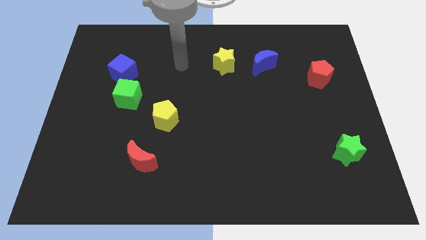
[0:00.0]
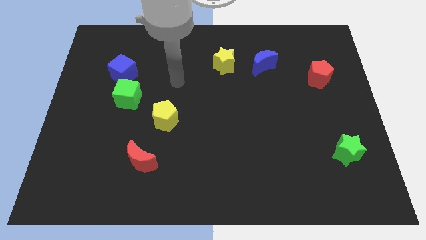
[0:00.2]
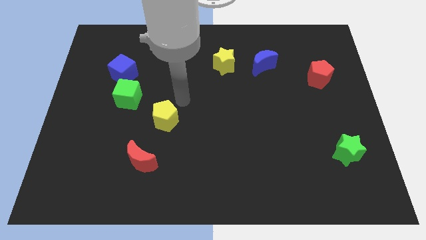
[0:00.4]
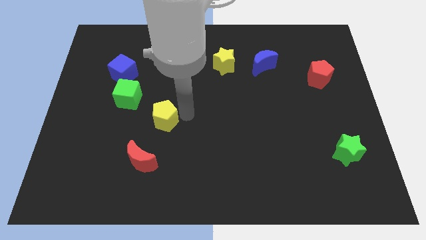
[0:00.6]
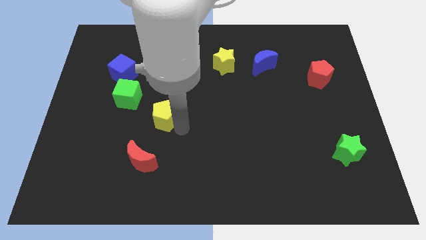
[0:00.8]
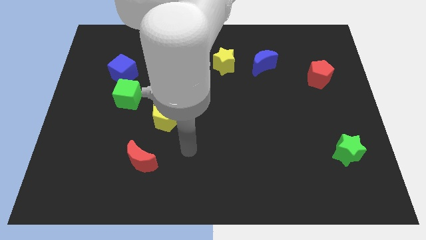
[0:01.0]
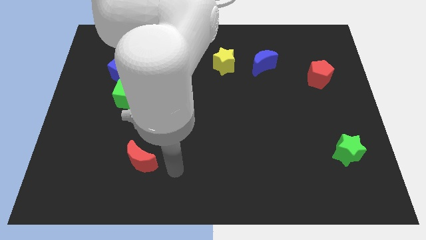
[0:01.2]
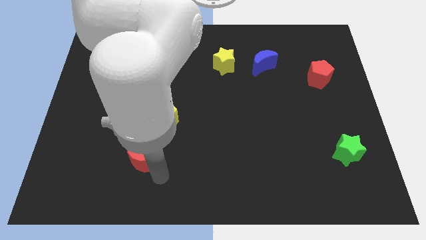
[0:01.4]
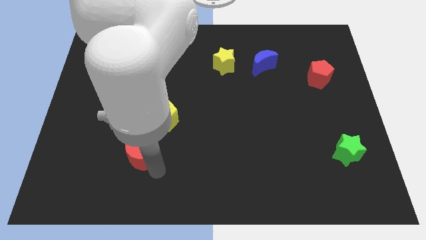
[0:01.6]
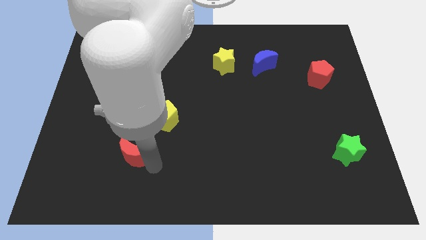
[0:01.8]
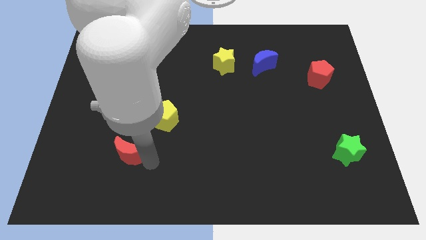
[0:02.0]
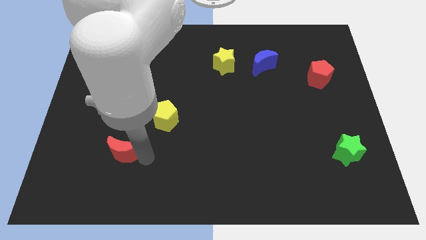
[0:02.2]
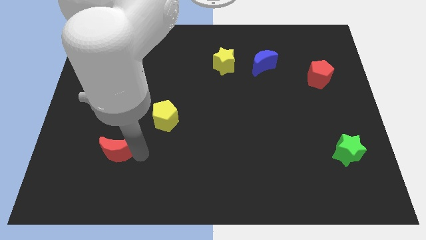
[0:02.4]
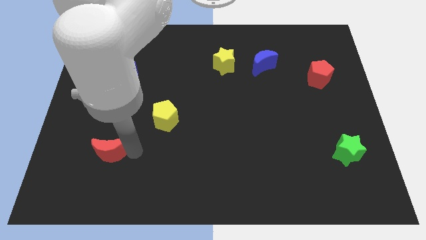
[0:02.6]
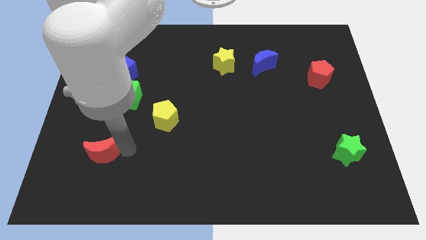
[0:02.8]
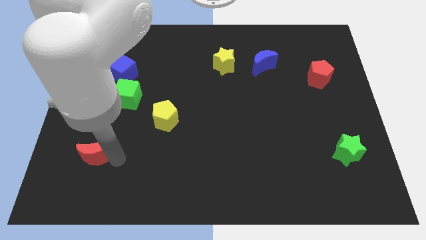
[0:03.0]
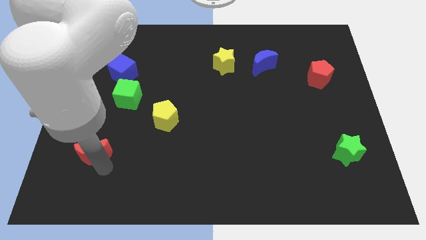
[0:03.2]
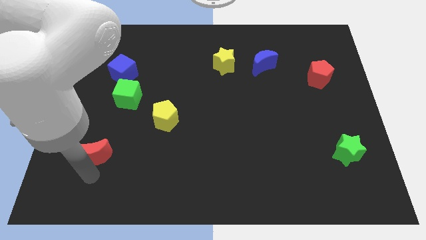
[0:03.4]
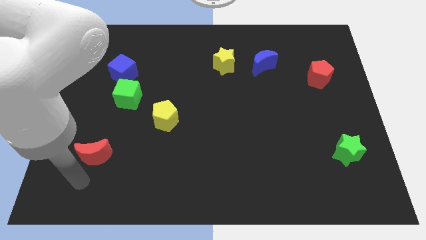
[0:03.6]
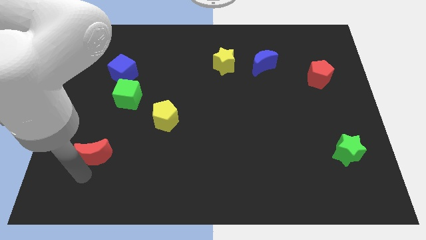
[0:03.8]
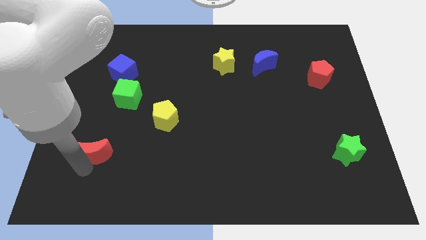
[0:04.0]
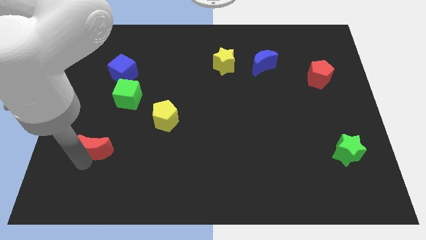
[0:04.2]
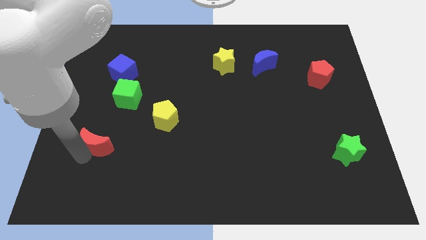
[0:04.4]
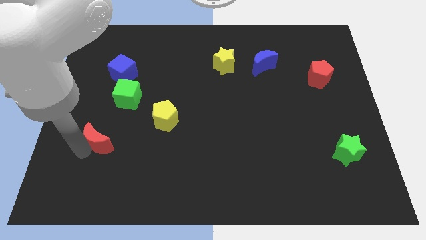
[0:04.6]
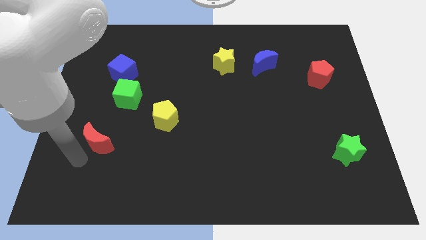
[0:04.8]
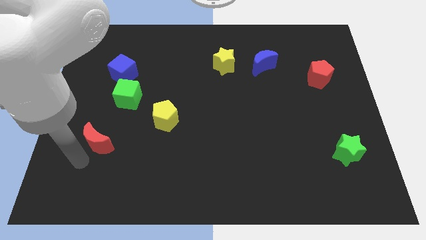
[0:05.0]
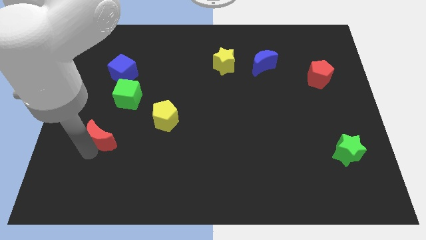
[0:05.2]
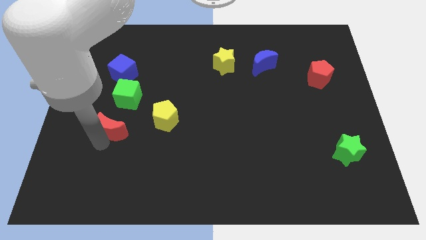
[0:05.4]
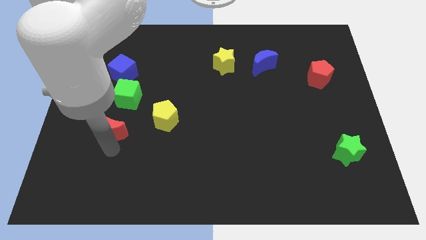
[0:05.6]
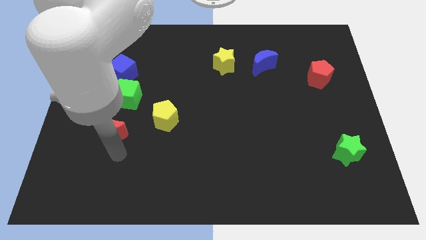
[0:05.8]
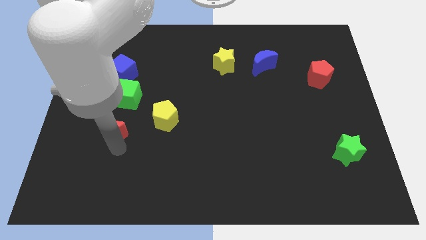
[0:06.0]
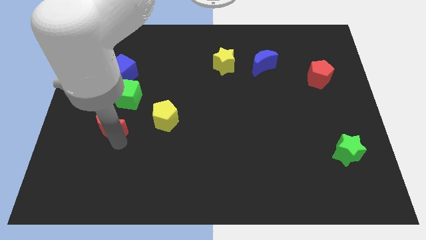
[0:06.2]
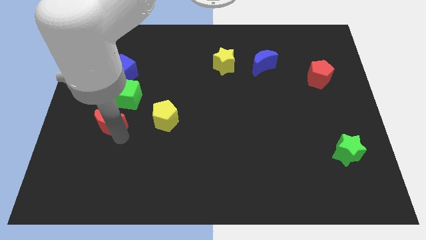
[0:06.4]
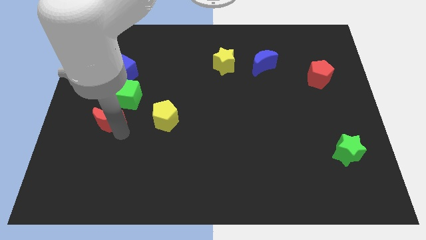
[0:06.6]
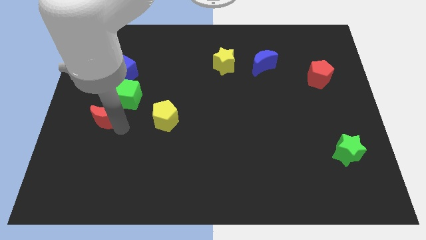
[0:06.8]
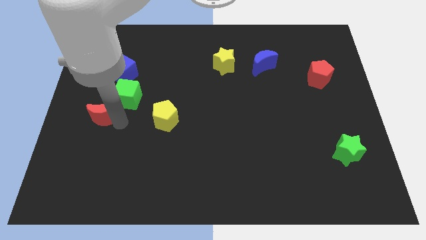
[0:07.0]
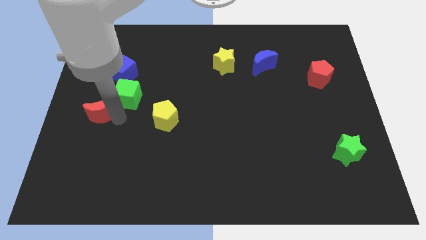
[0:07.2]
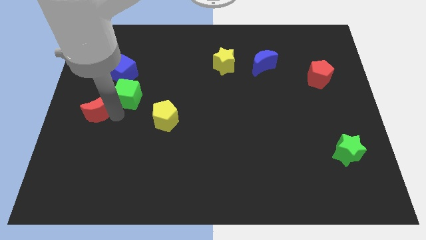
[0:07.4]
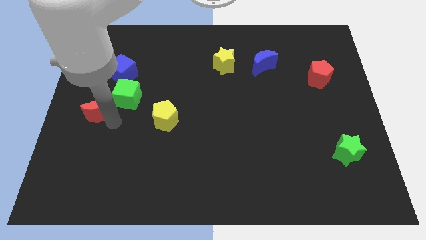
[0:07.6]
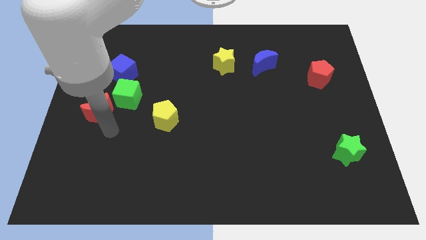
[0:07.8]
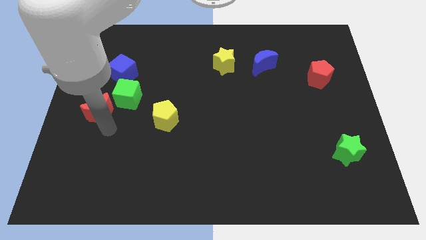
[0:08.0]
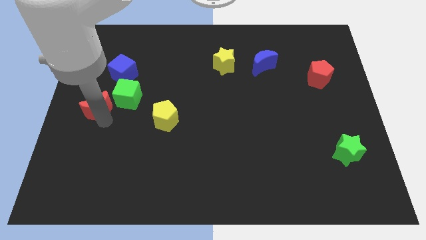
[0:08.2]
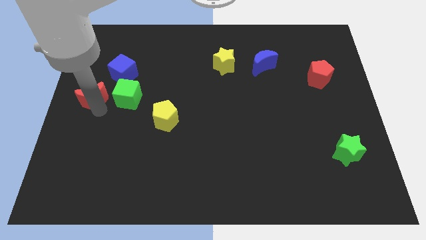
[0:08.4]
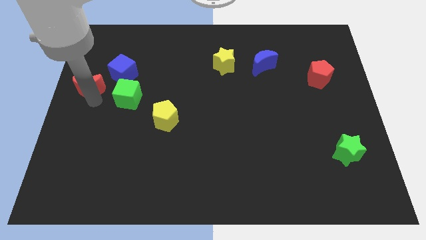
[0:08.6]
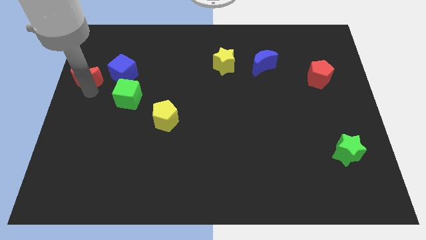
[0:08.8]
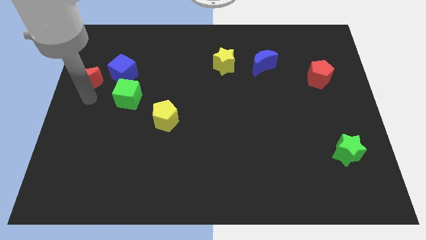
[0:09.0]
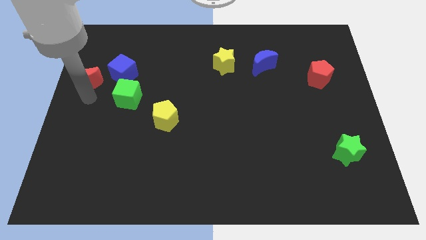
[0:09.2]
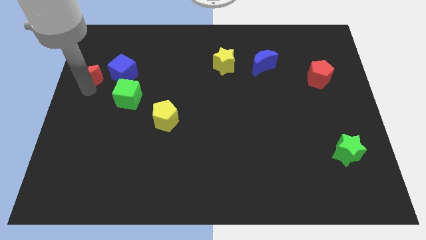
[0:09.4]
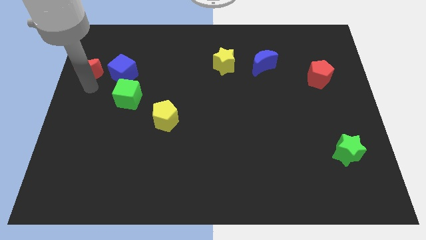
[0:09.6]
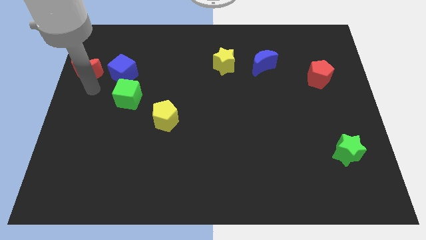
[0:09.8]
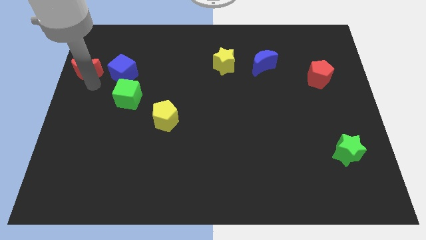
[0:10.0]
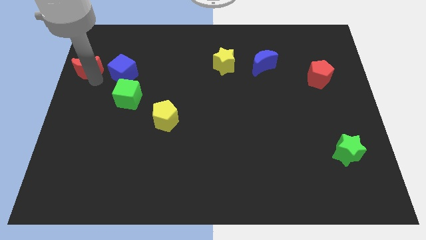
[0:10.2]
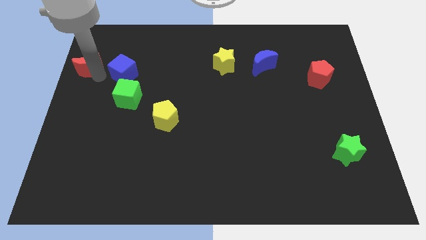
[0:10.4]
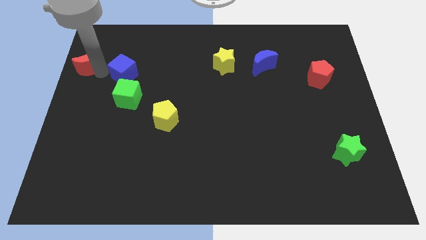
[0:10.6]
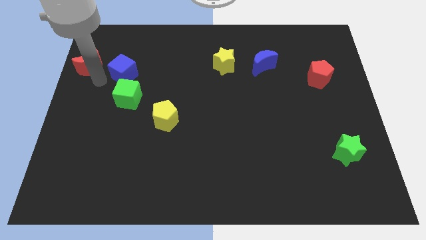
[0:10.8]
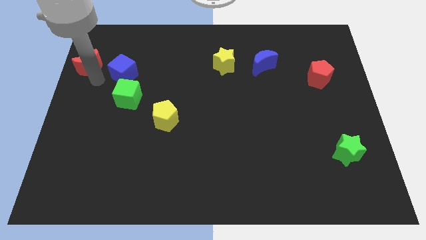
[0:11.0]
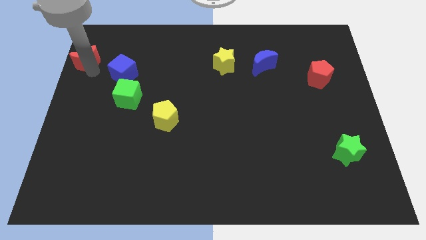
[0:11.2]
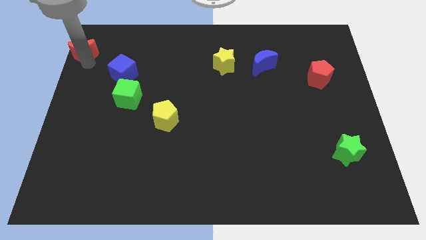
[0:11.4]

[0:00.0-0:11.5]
push the red moon to the upper left corner
